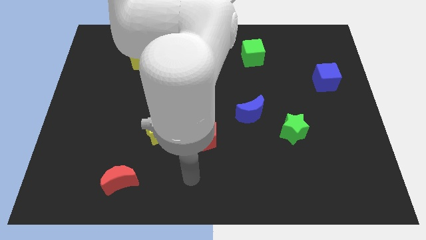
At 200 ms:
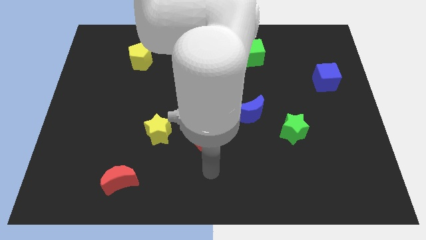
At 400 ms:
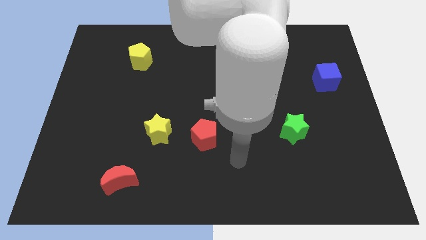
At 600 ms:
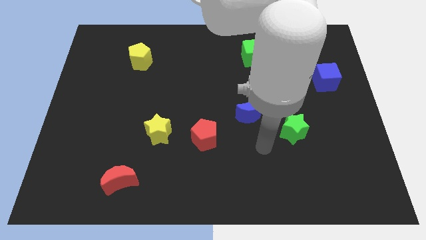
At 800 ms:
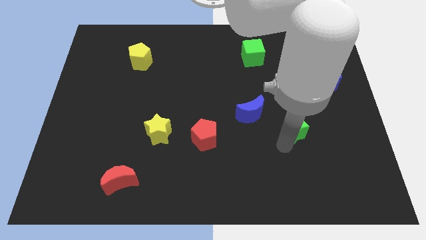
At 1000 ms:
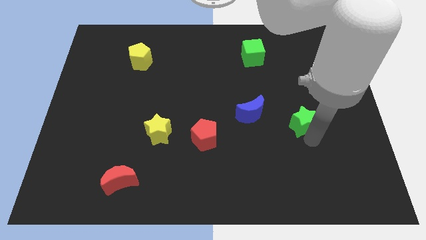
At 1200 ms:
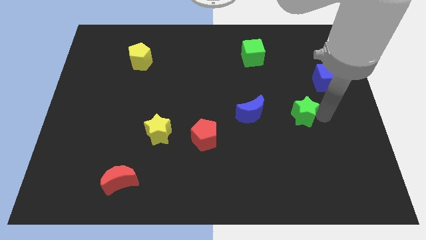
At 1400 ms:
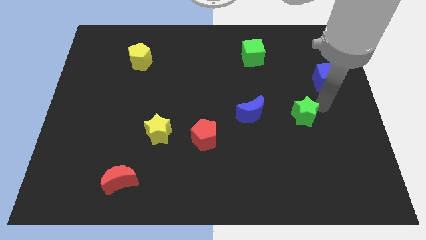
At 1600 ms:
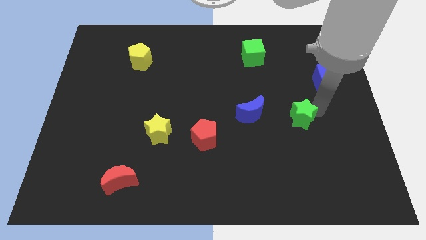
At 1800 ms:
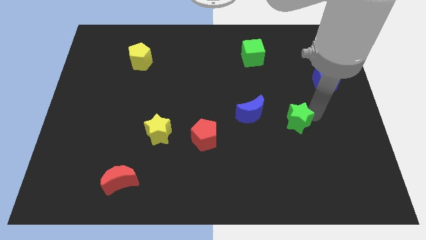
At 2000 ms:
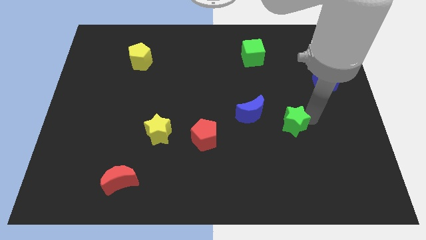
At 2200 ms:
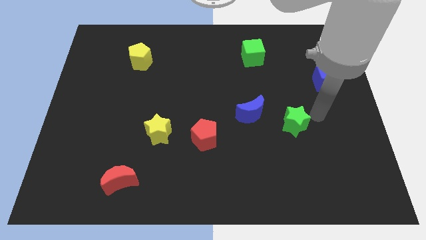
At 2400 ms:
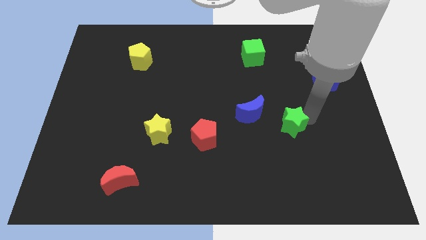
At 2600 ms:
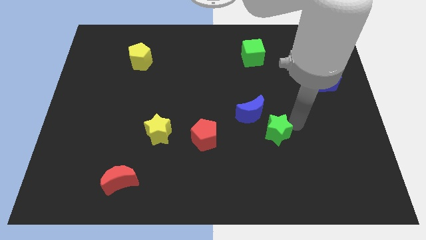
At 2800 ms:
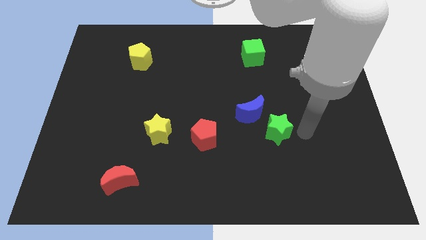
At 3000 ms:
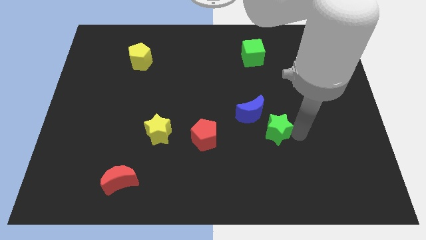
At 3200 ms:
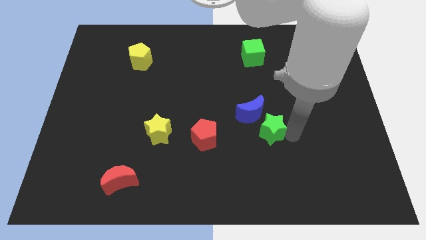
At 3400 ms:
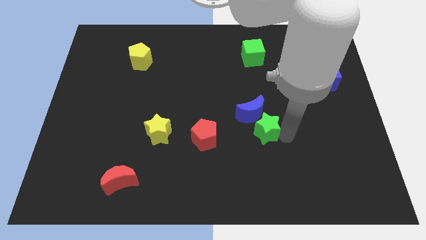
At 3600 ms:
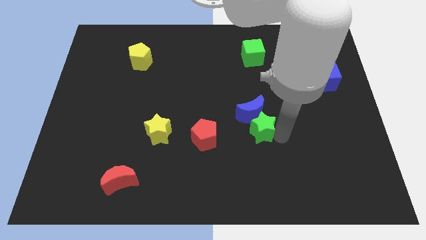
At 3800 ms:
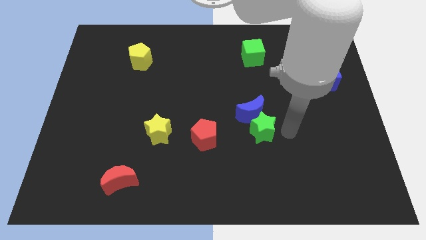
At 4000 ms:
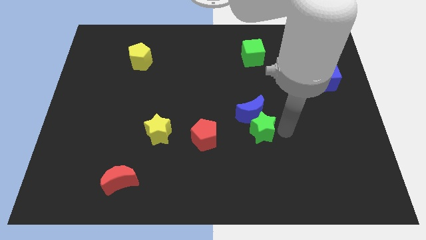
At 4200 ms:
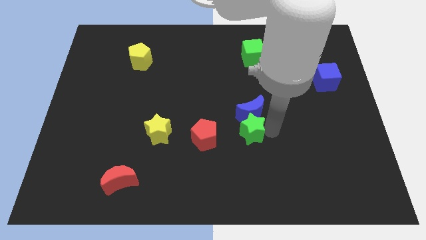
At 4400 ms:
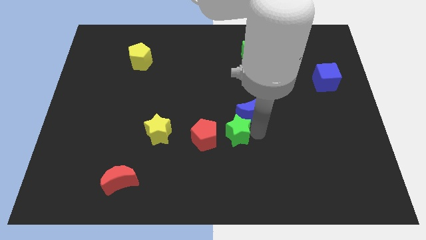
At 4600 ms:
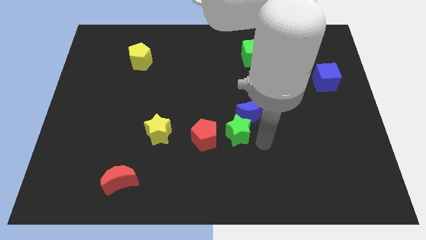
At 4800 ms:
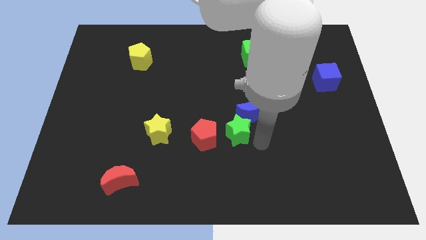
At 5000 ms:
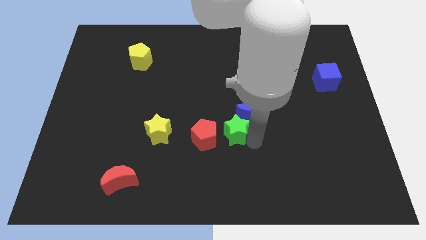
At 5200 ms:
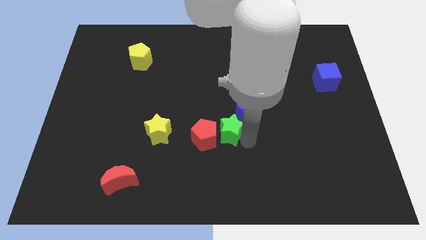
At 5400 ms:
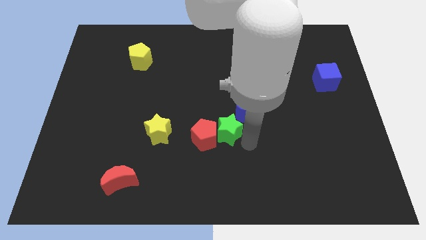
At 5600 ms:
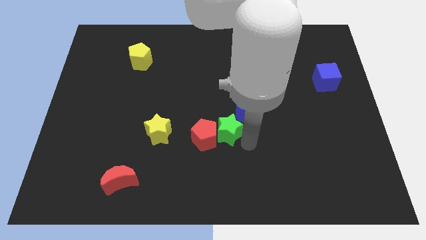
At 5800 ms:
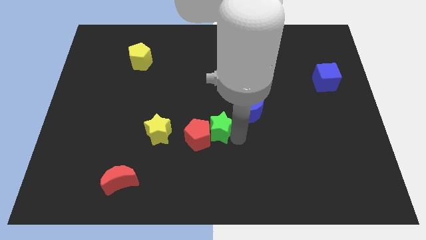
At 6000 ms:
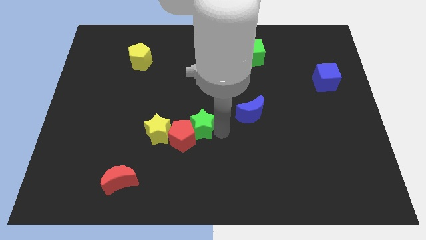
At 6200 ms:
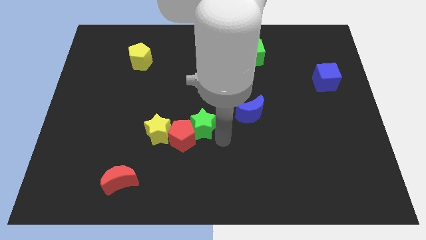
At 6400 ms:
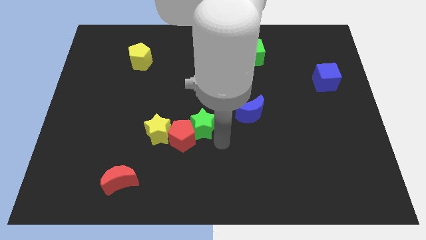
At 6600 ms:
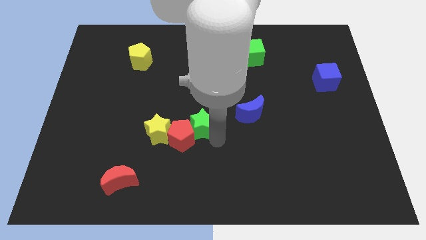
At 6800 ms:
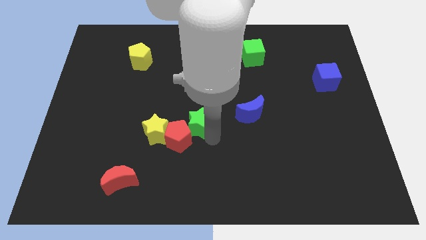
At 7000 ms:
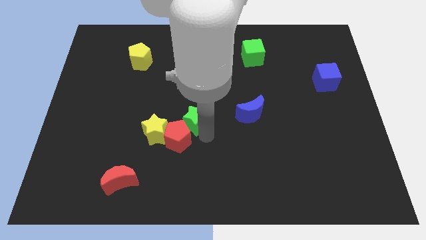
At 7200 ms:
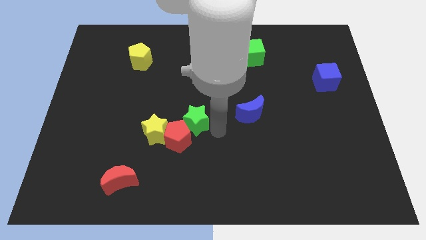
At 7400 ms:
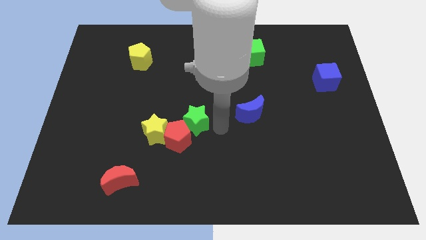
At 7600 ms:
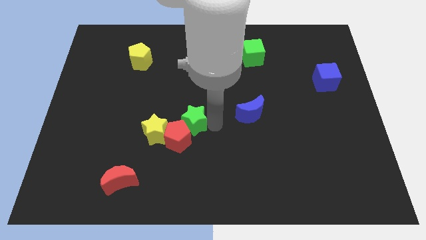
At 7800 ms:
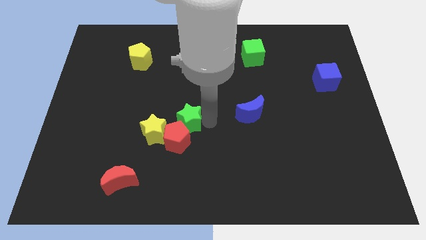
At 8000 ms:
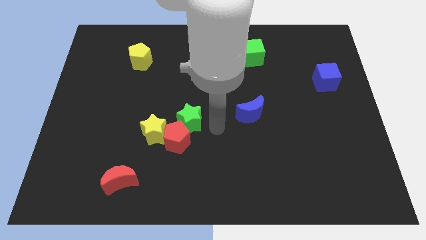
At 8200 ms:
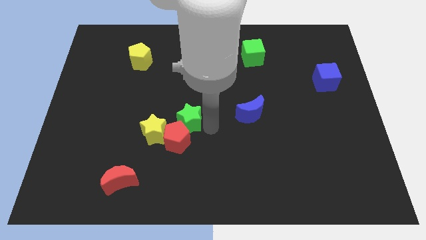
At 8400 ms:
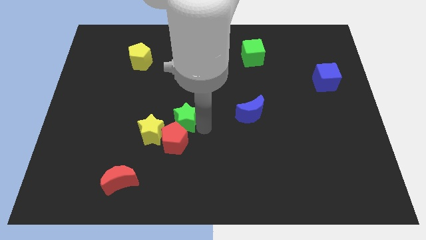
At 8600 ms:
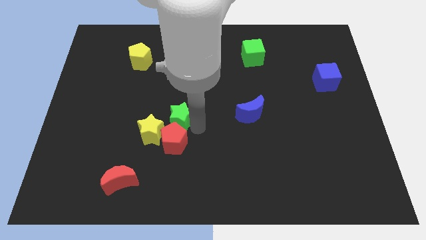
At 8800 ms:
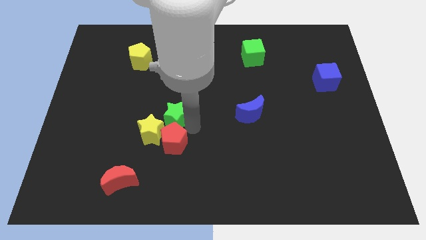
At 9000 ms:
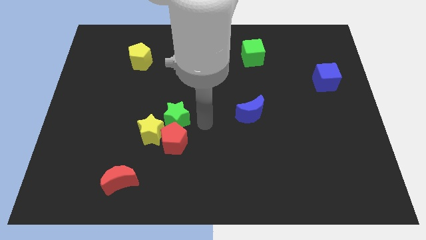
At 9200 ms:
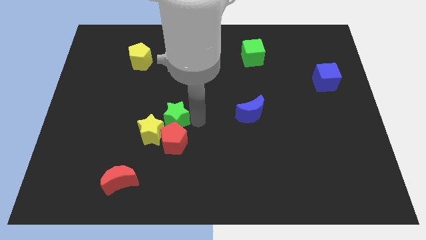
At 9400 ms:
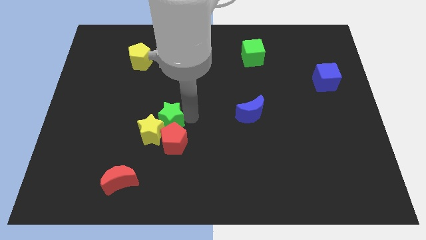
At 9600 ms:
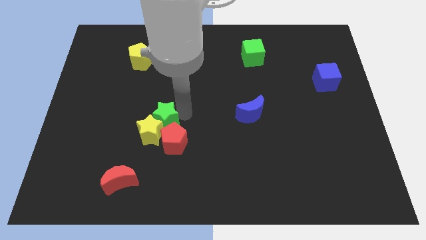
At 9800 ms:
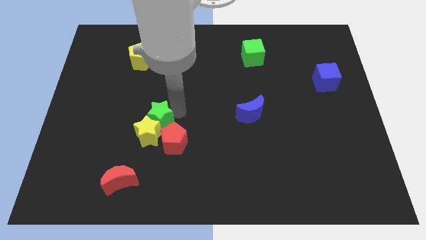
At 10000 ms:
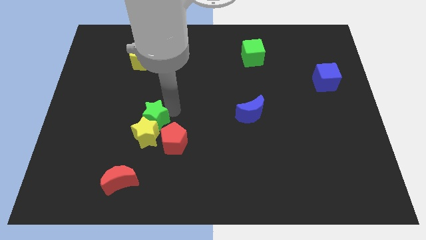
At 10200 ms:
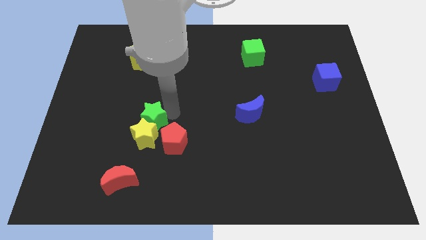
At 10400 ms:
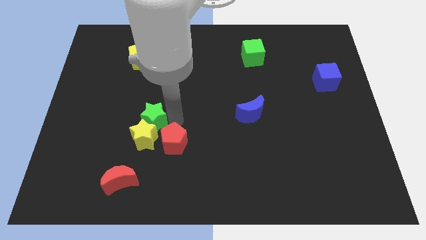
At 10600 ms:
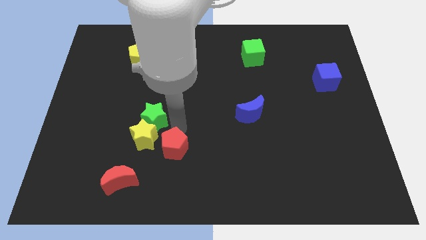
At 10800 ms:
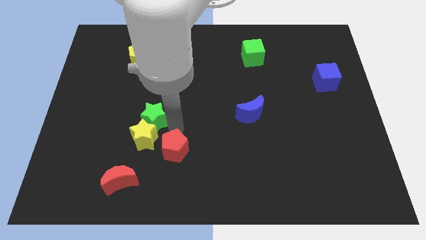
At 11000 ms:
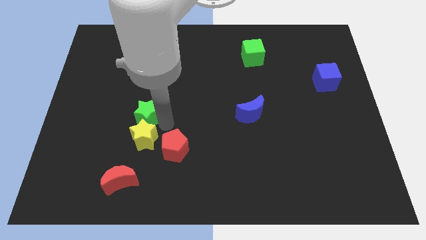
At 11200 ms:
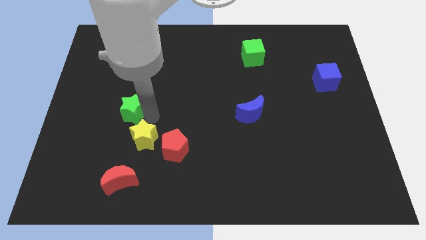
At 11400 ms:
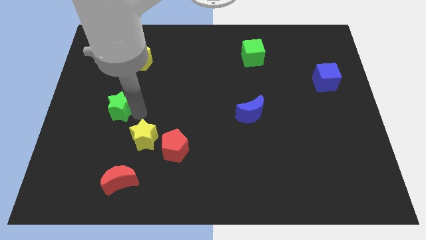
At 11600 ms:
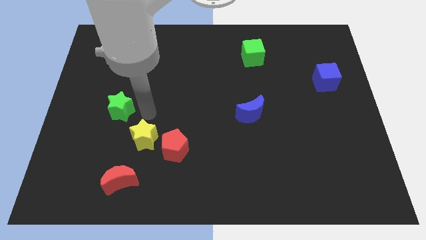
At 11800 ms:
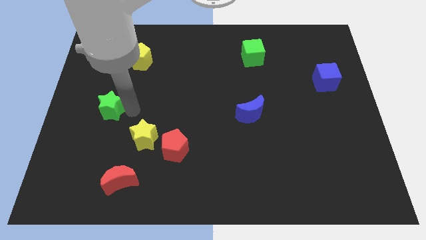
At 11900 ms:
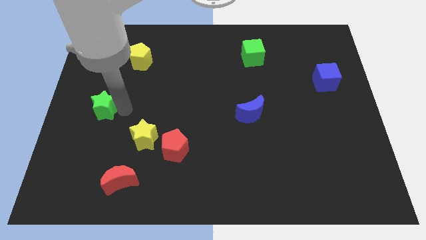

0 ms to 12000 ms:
put the green star to the center left

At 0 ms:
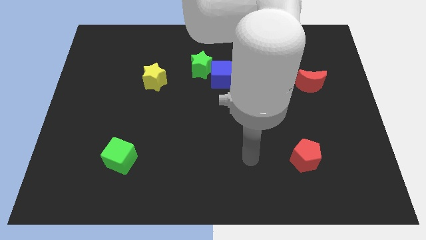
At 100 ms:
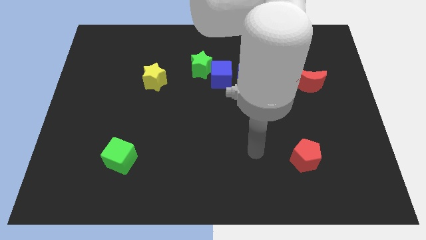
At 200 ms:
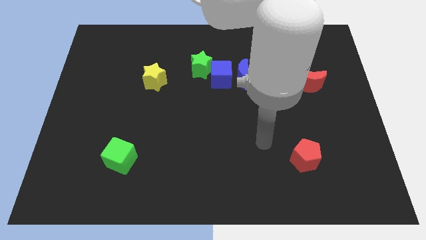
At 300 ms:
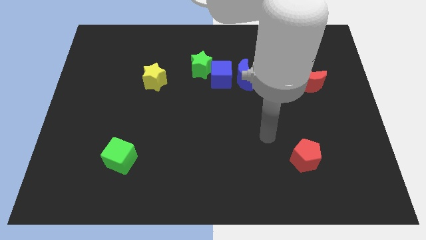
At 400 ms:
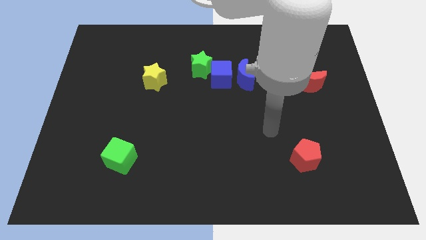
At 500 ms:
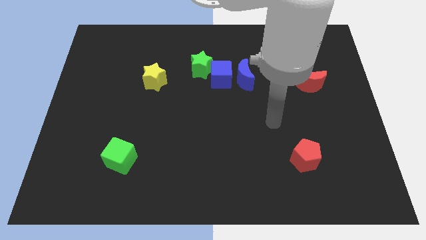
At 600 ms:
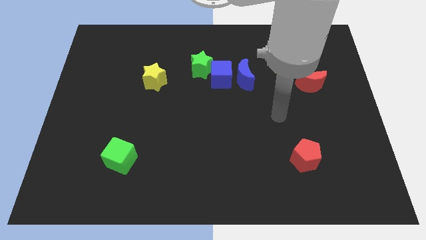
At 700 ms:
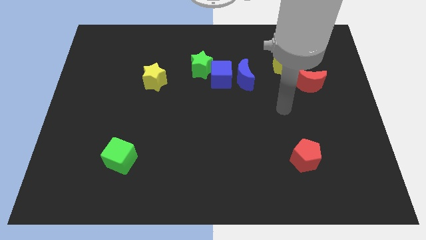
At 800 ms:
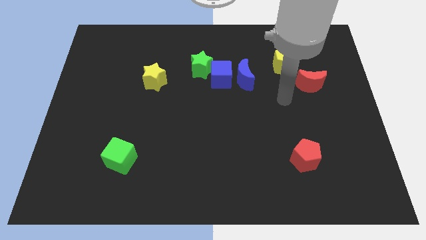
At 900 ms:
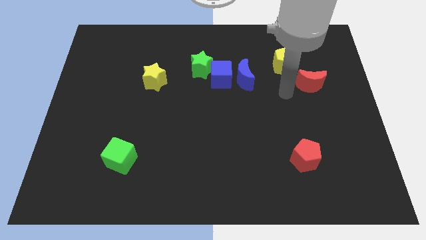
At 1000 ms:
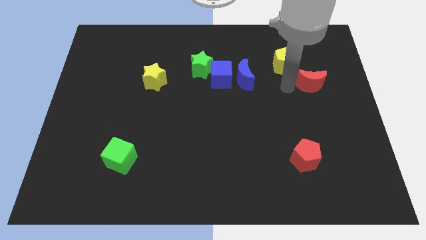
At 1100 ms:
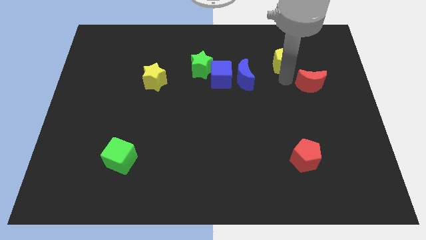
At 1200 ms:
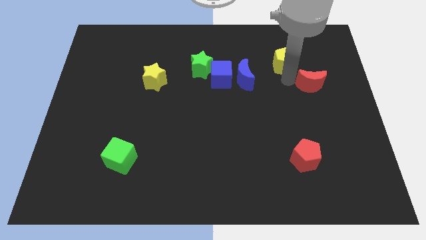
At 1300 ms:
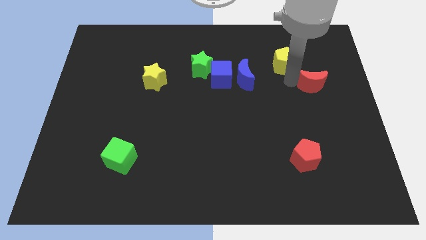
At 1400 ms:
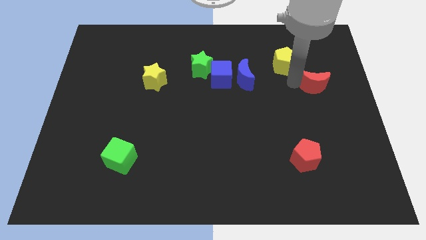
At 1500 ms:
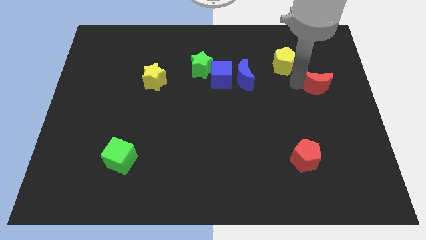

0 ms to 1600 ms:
slide the red moon to the right side of the board
